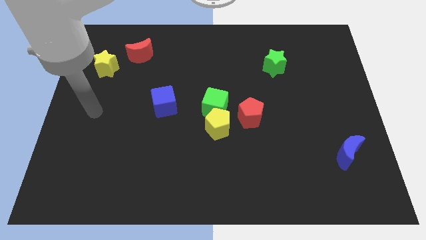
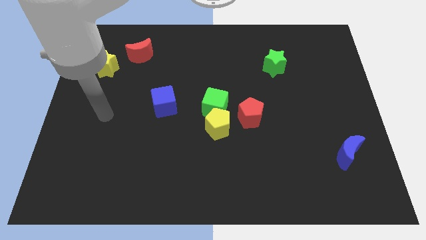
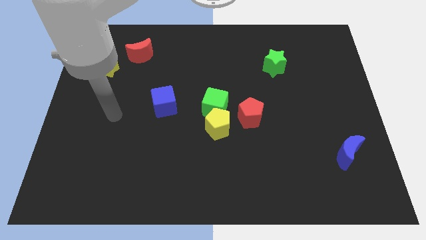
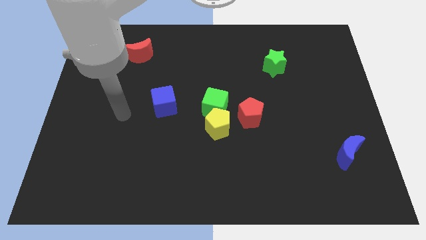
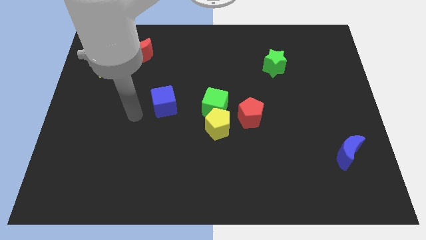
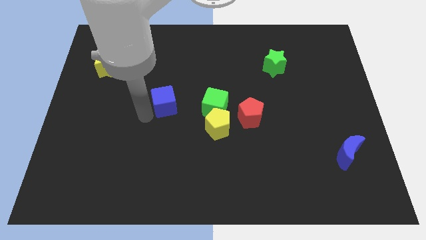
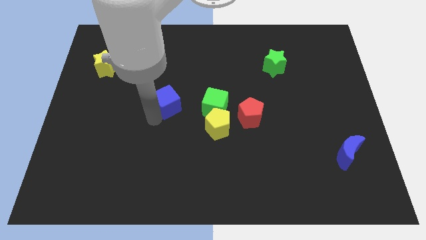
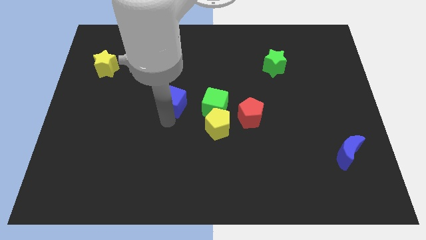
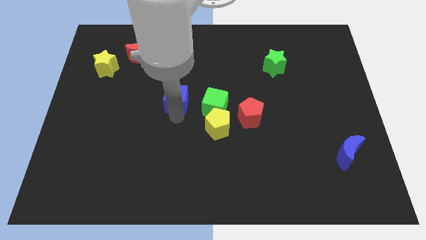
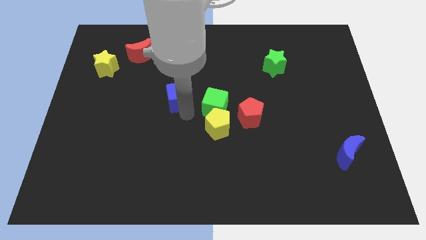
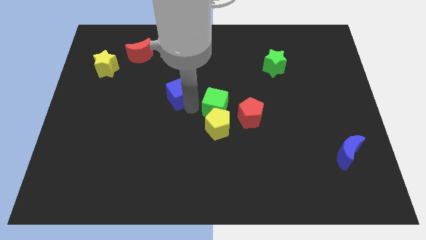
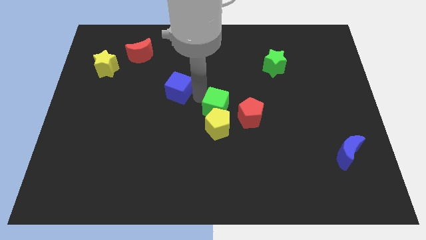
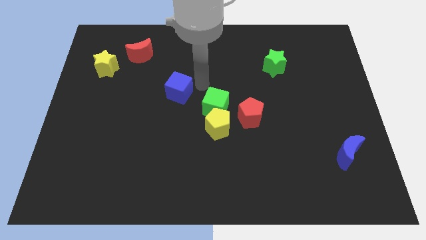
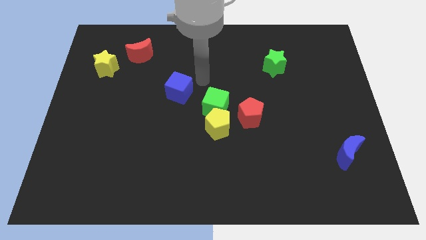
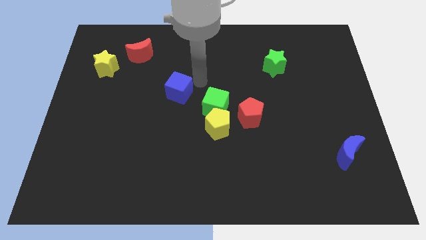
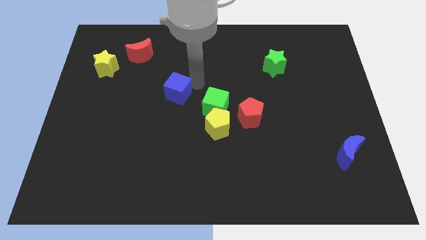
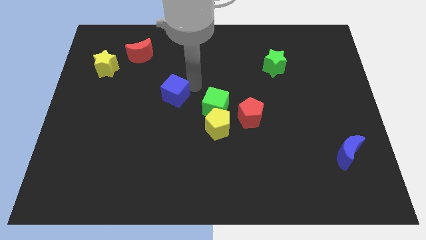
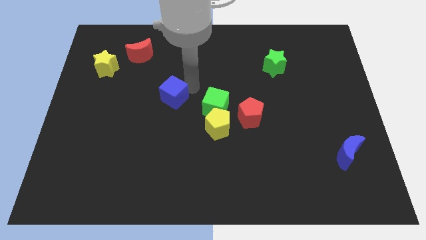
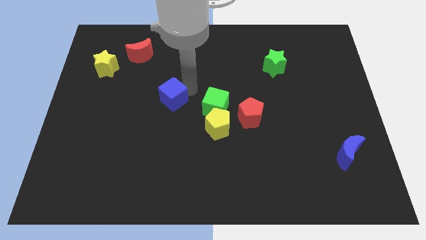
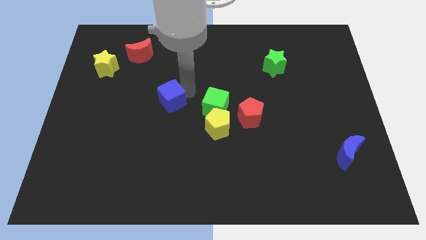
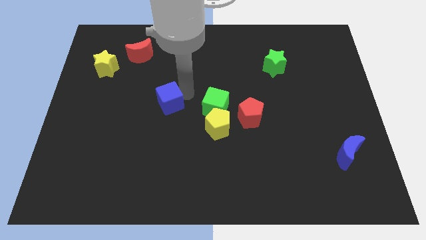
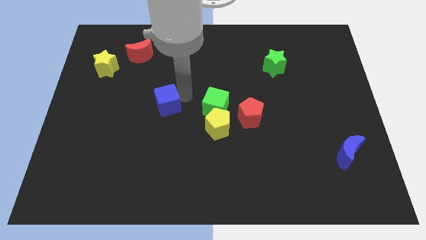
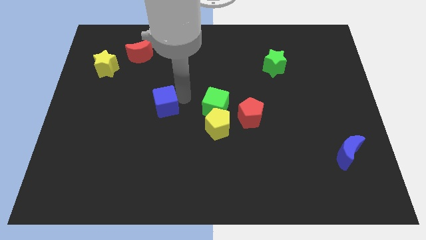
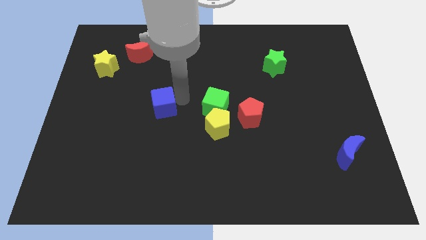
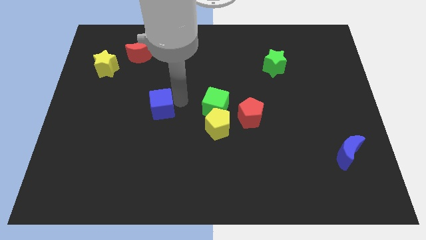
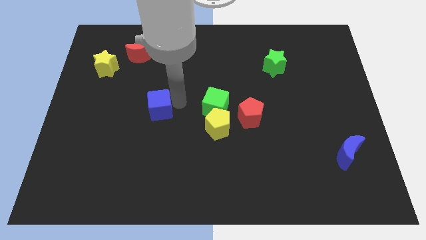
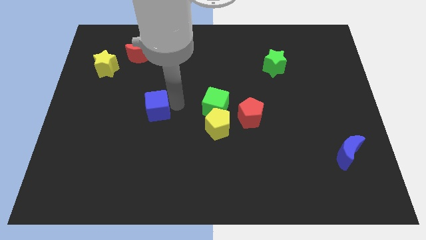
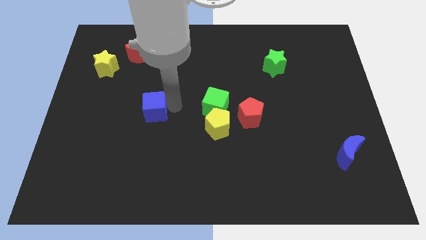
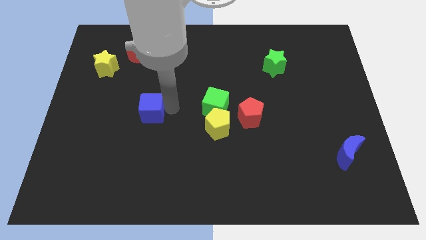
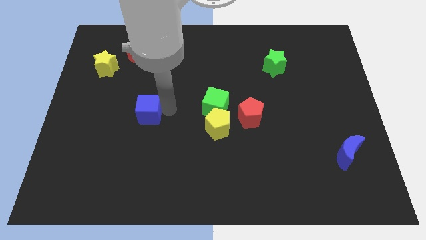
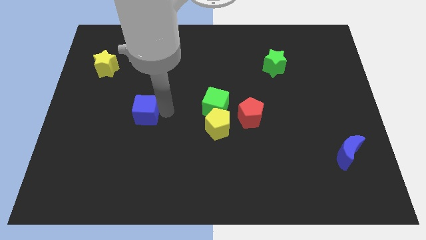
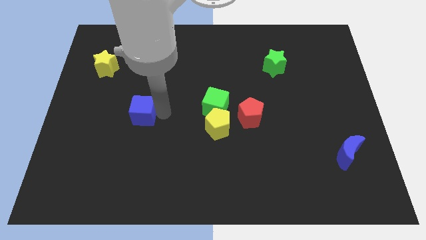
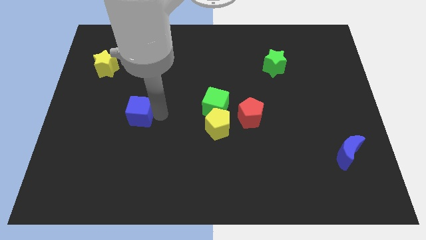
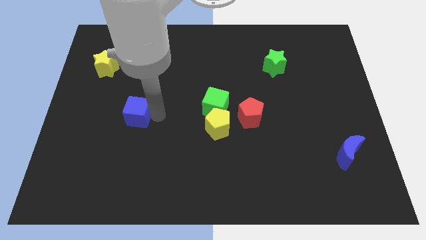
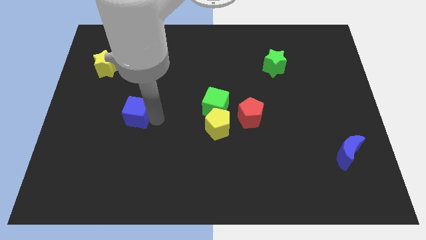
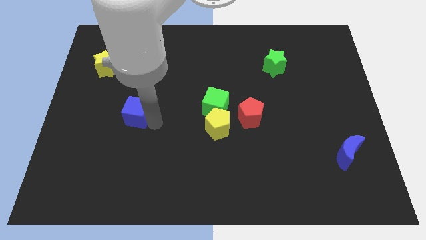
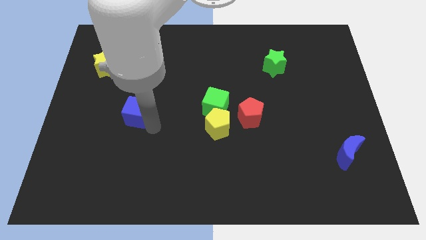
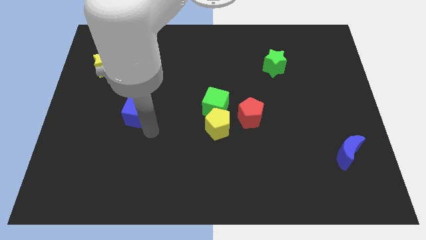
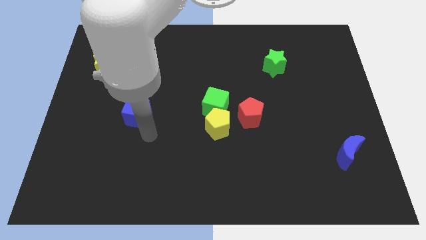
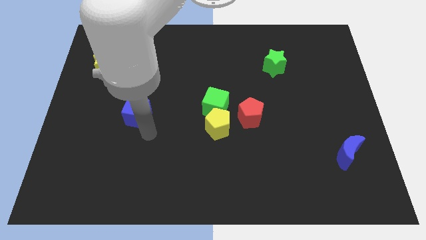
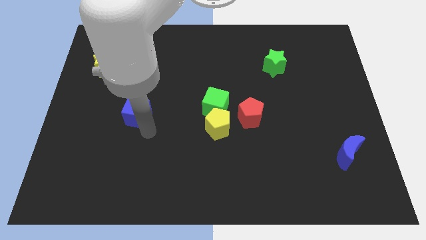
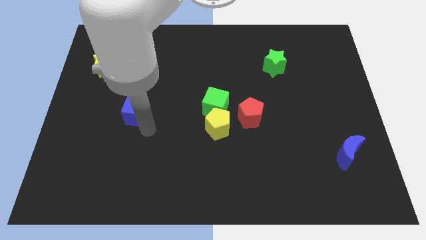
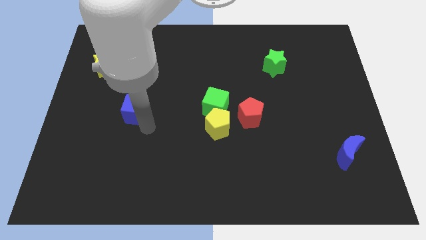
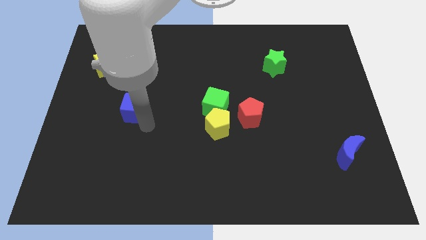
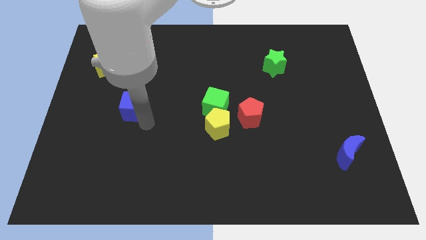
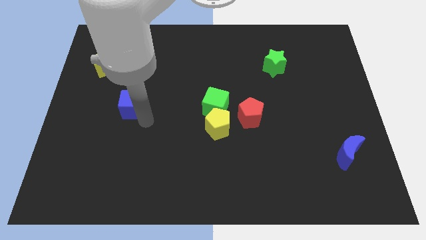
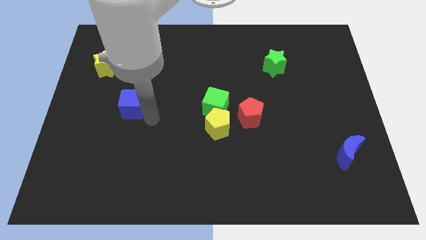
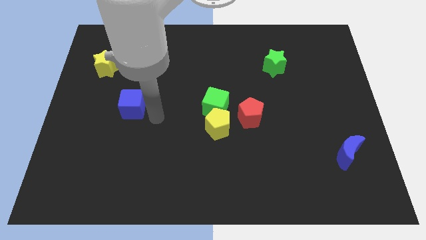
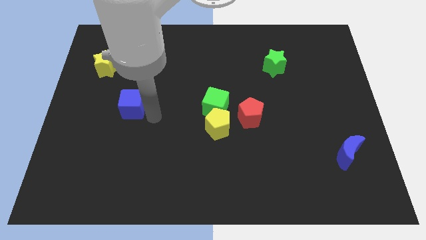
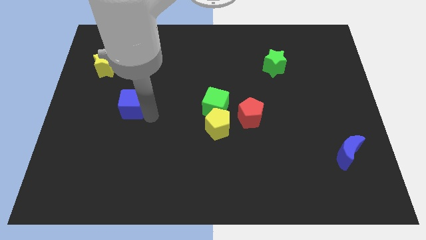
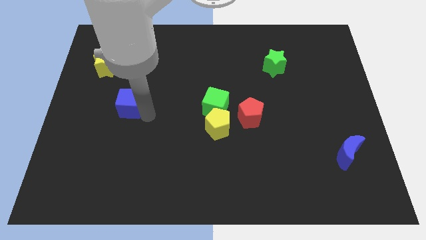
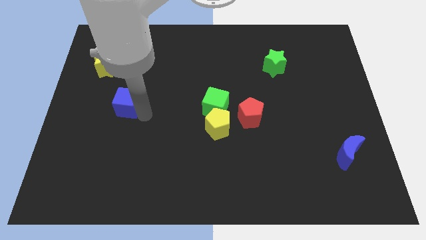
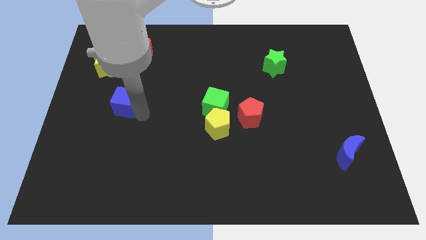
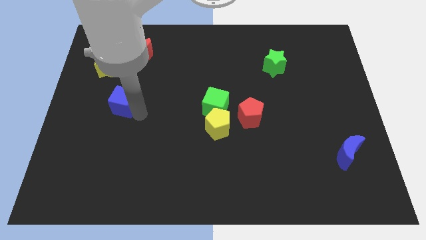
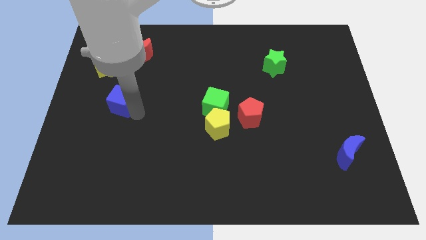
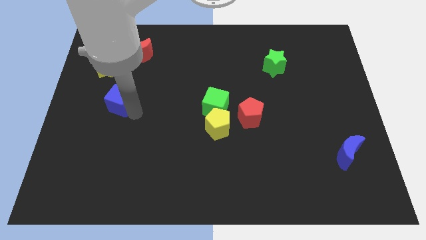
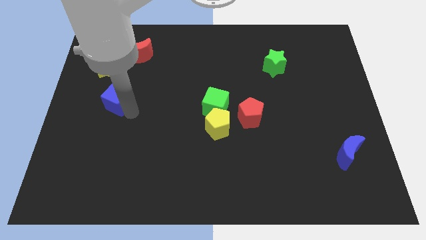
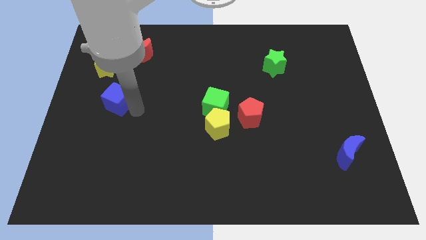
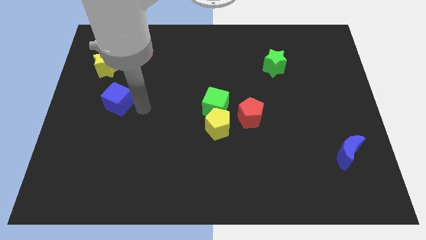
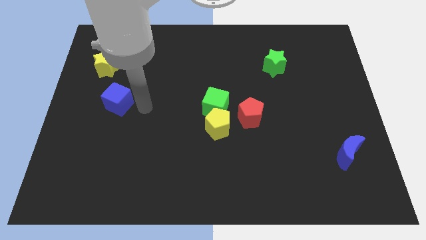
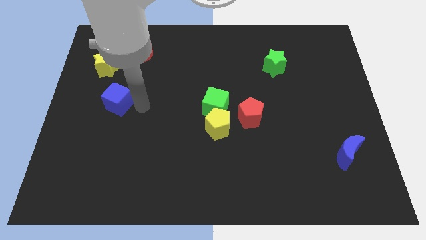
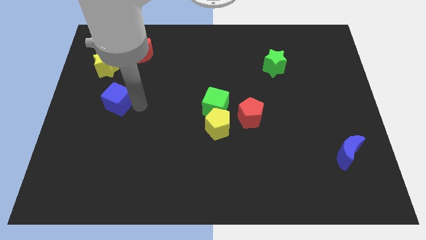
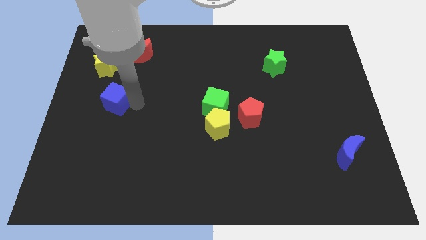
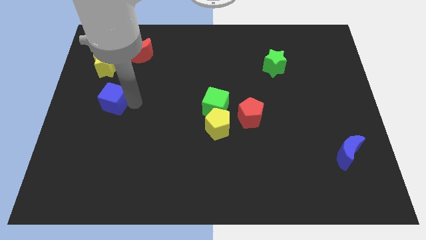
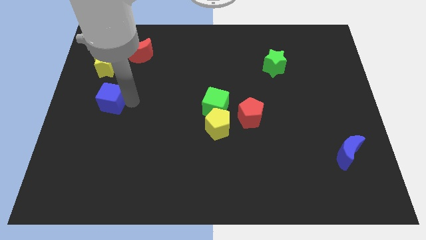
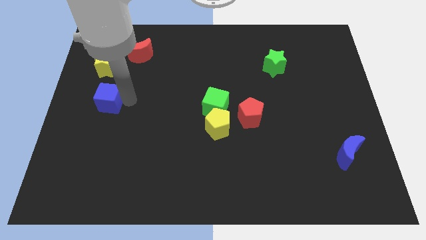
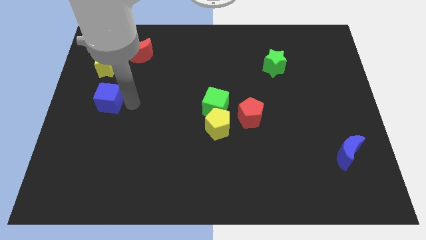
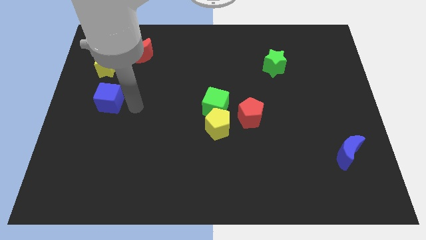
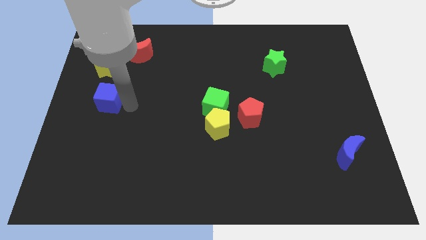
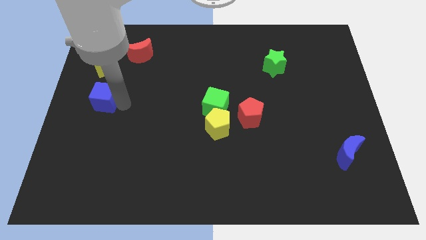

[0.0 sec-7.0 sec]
put the blue cube to the left side
